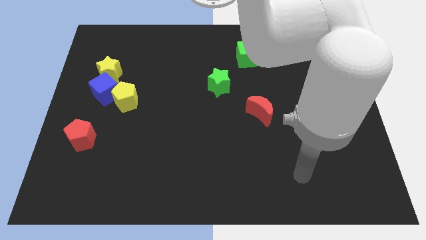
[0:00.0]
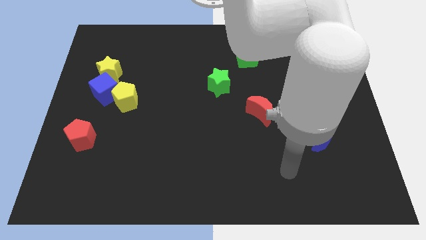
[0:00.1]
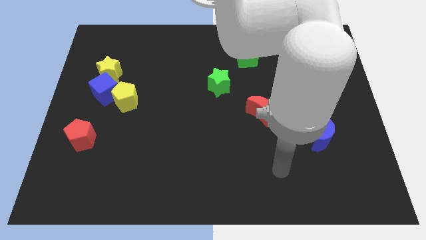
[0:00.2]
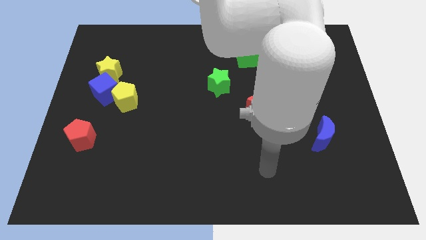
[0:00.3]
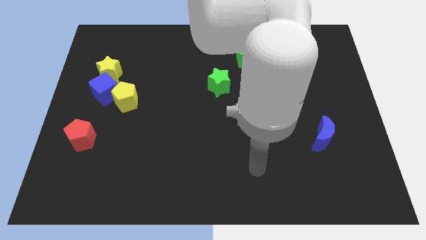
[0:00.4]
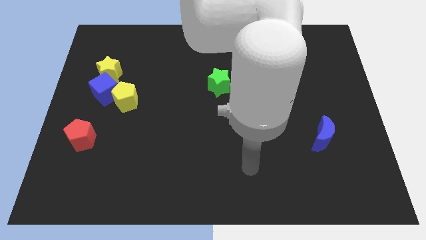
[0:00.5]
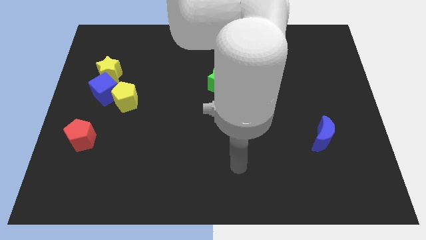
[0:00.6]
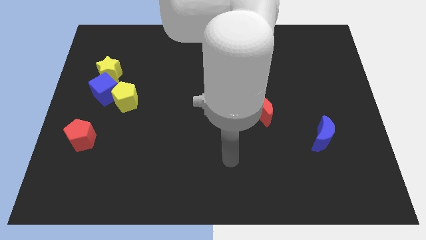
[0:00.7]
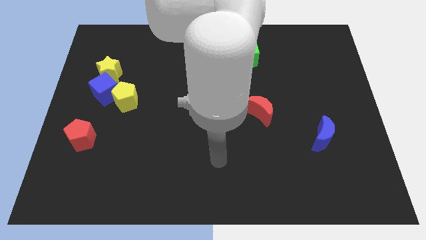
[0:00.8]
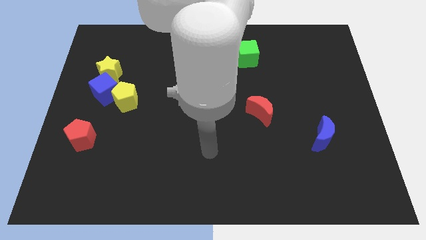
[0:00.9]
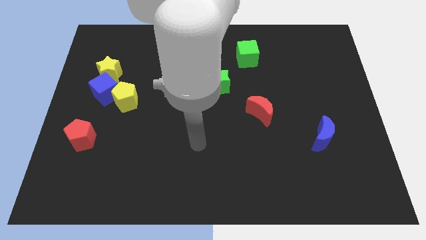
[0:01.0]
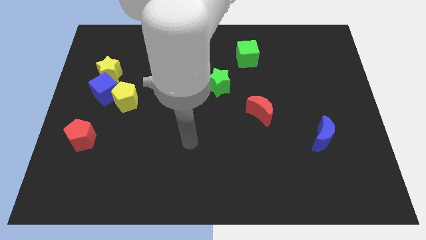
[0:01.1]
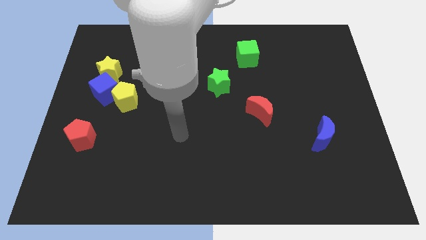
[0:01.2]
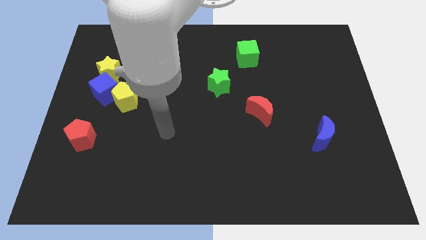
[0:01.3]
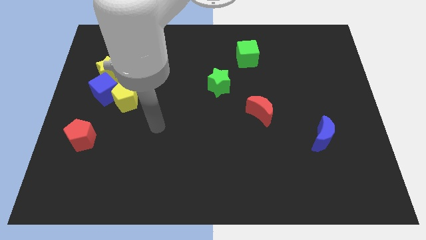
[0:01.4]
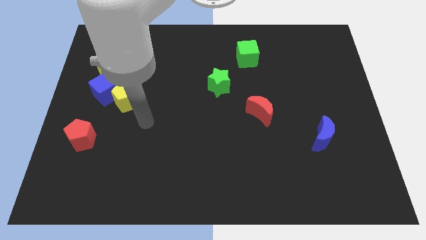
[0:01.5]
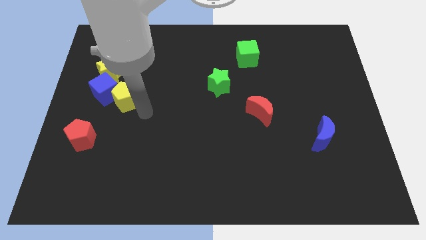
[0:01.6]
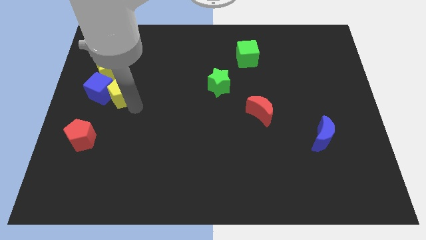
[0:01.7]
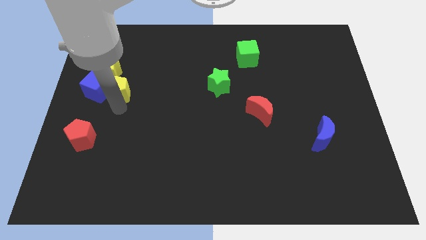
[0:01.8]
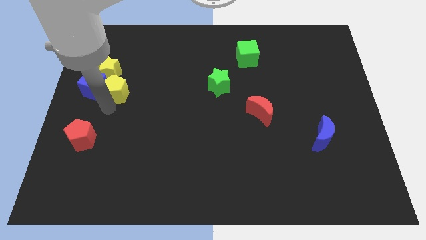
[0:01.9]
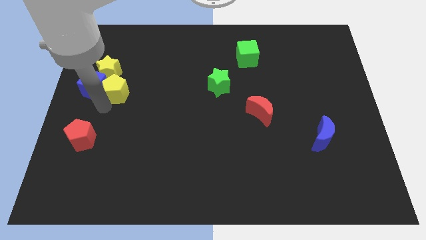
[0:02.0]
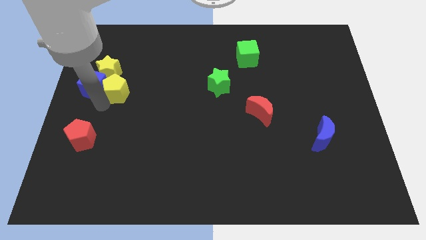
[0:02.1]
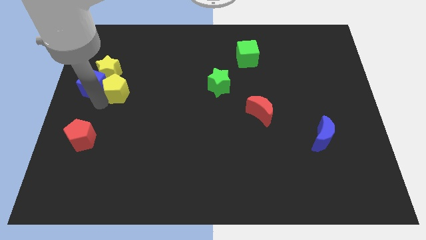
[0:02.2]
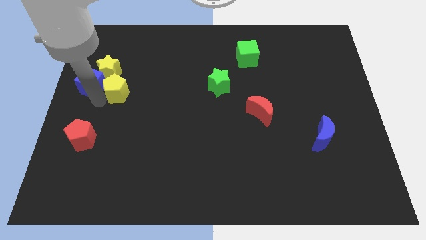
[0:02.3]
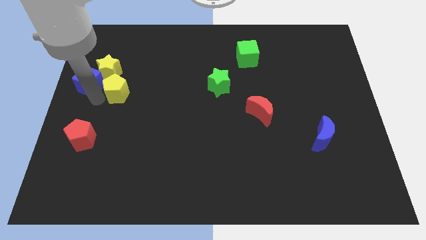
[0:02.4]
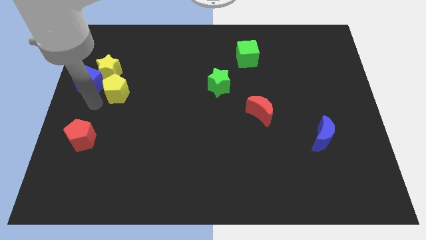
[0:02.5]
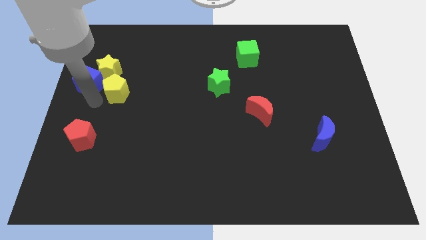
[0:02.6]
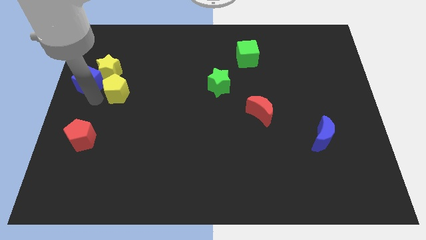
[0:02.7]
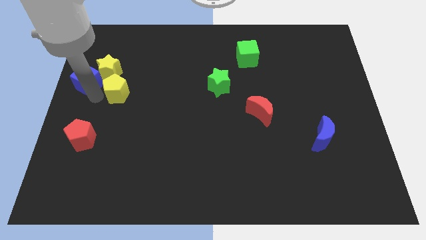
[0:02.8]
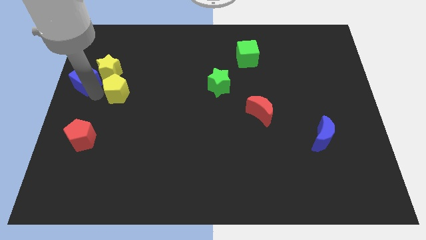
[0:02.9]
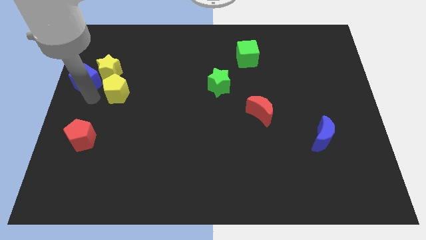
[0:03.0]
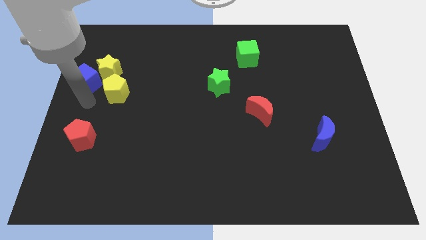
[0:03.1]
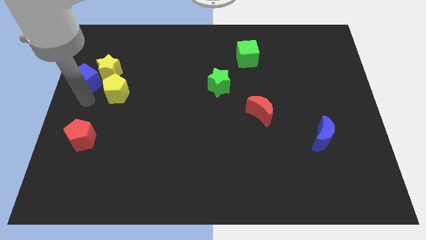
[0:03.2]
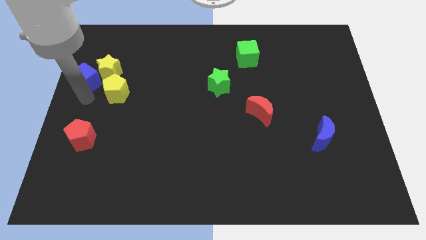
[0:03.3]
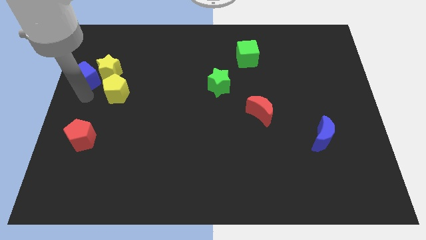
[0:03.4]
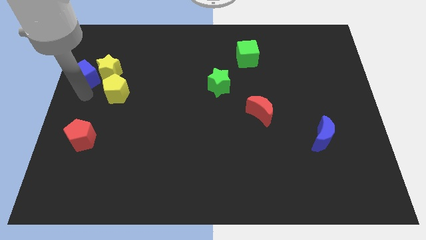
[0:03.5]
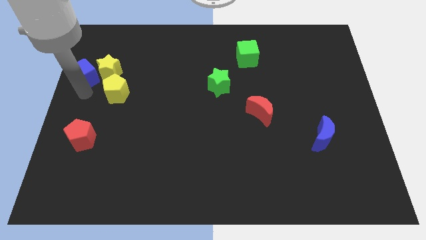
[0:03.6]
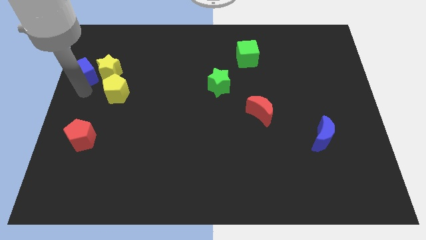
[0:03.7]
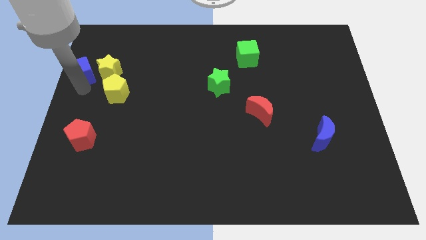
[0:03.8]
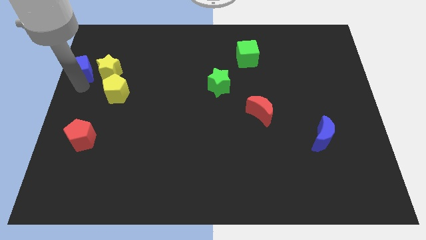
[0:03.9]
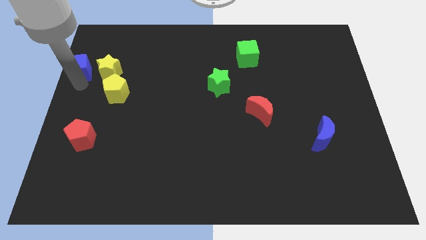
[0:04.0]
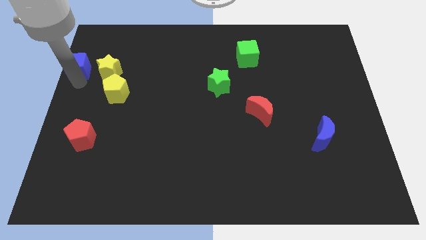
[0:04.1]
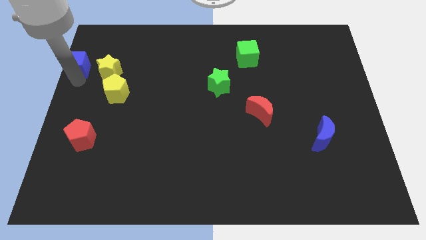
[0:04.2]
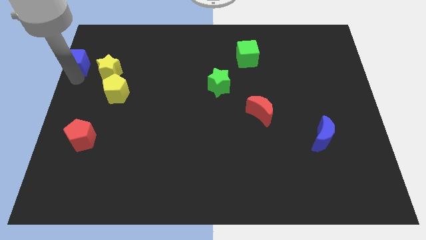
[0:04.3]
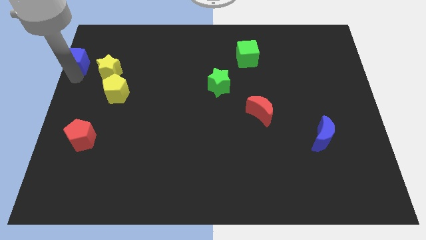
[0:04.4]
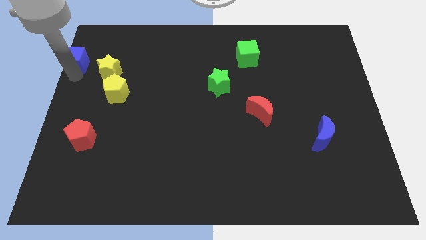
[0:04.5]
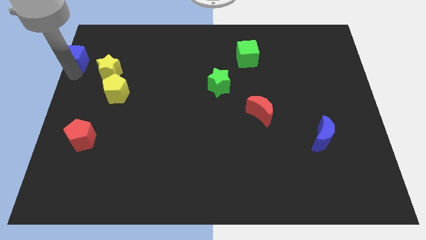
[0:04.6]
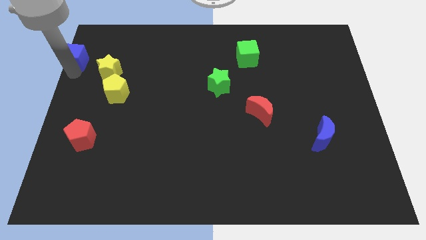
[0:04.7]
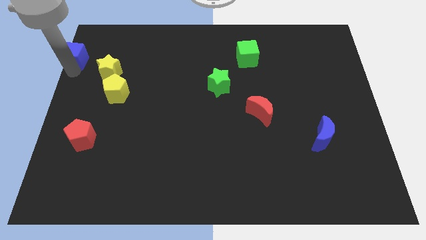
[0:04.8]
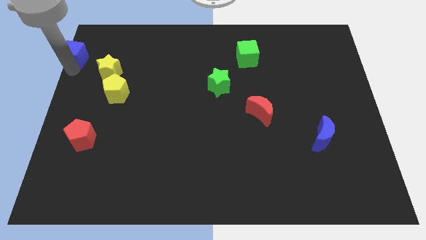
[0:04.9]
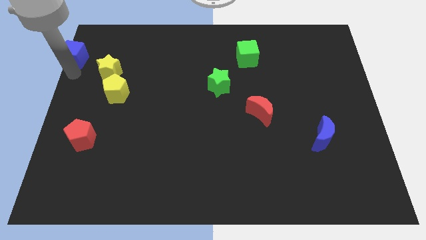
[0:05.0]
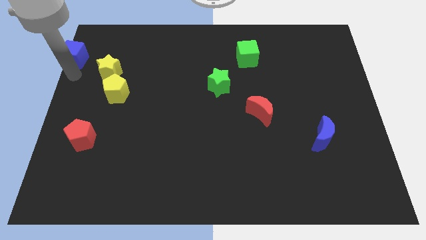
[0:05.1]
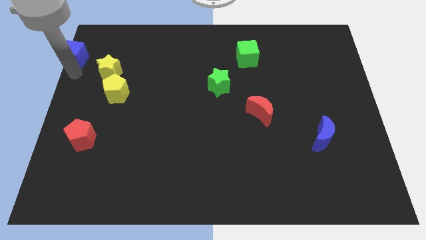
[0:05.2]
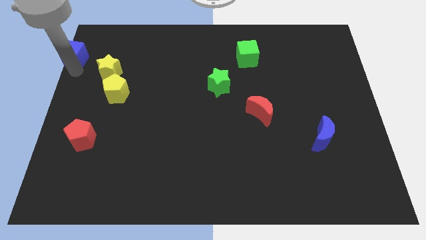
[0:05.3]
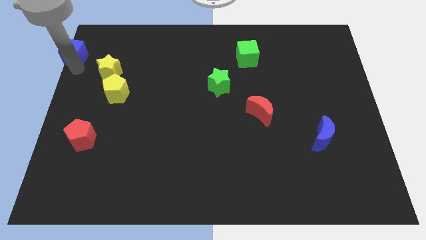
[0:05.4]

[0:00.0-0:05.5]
slide the blue cube to the top left

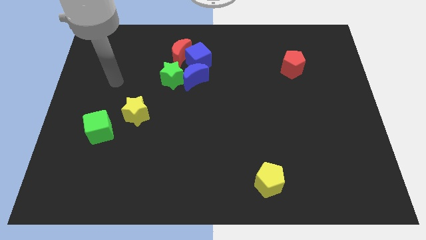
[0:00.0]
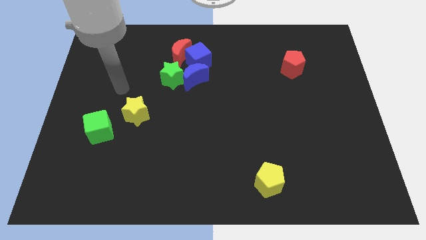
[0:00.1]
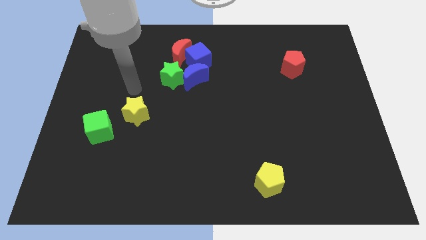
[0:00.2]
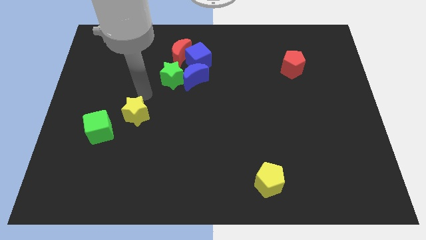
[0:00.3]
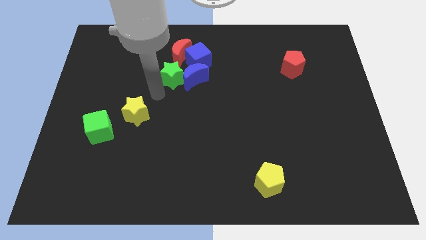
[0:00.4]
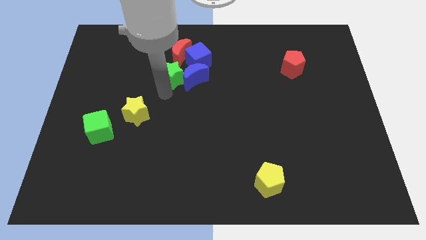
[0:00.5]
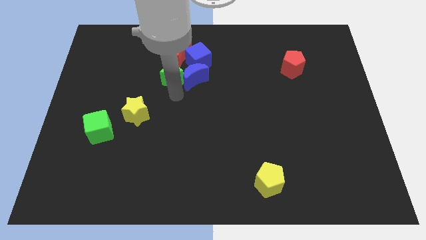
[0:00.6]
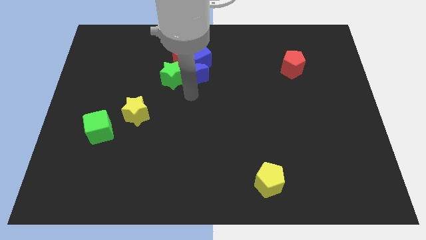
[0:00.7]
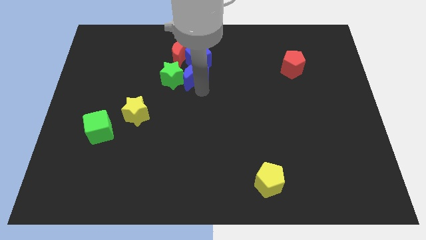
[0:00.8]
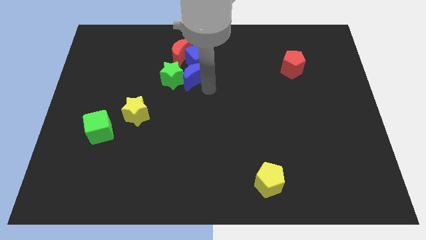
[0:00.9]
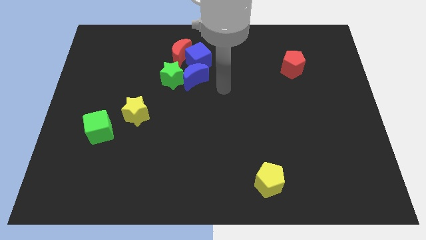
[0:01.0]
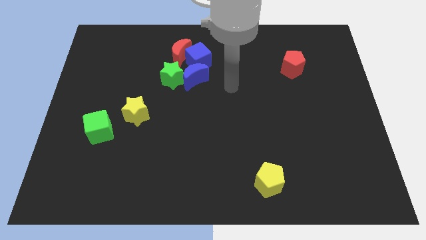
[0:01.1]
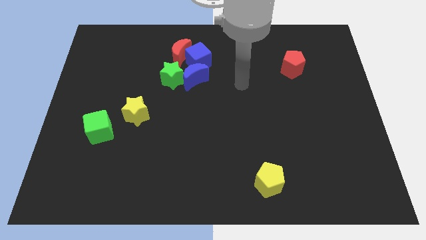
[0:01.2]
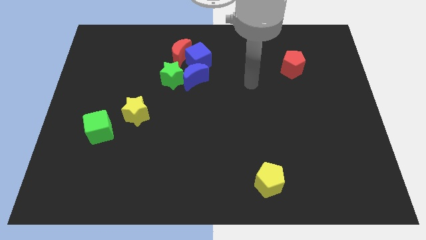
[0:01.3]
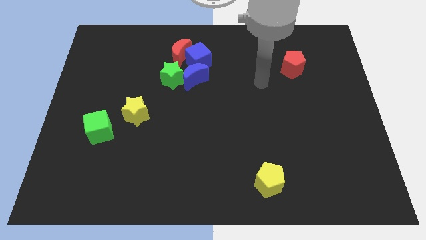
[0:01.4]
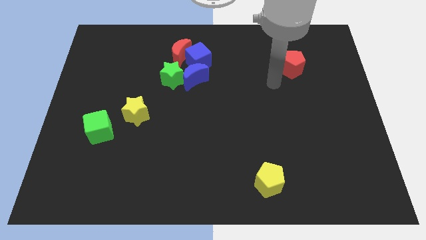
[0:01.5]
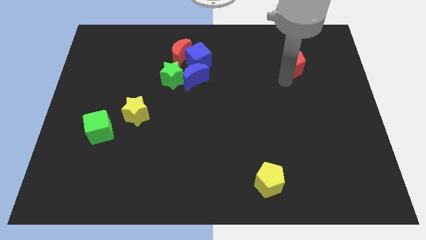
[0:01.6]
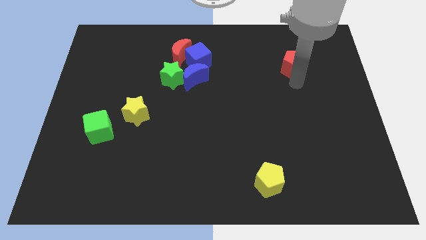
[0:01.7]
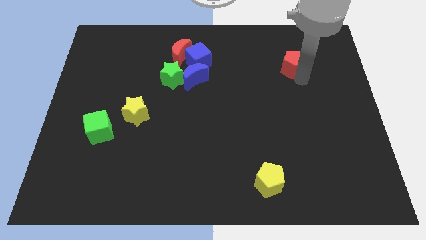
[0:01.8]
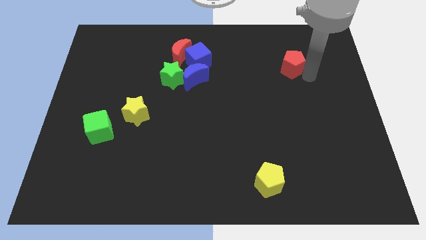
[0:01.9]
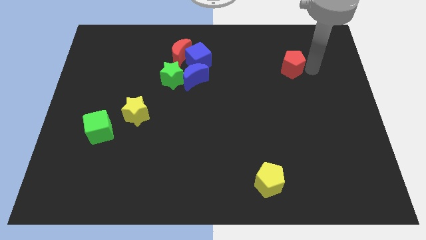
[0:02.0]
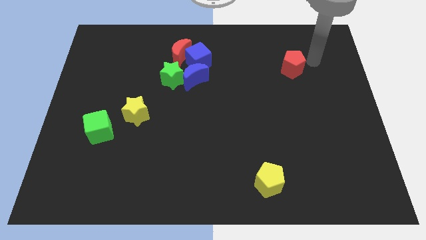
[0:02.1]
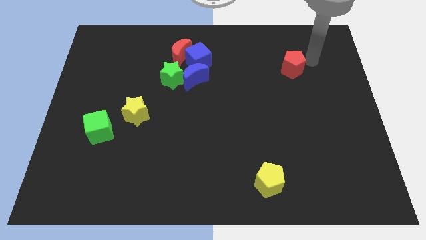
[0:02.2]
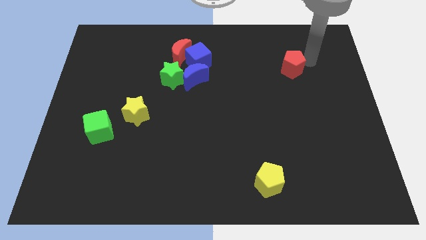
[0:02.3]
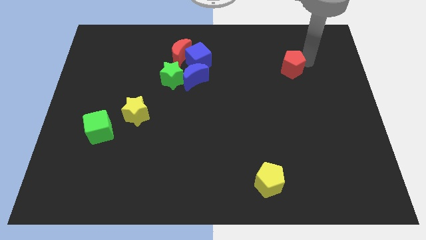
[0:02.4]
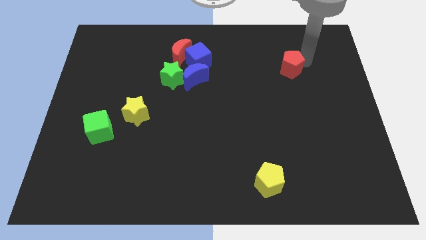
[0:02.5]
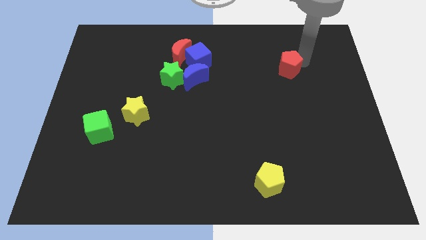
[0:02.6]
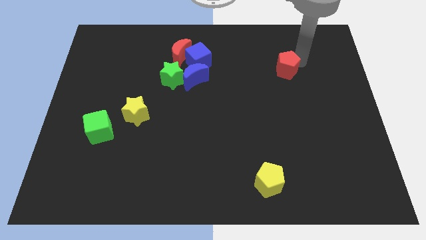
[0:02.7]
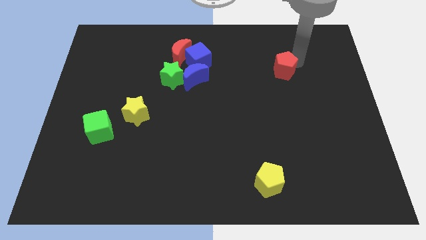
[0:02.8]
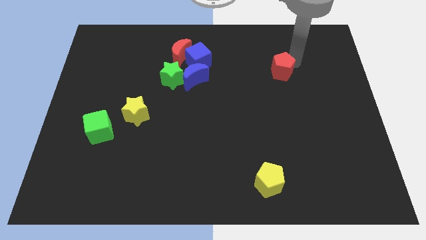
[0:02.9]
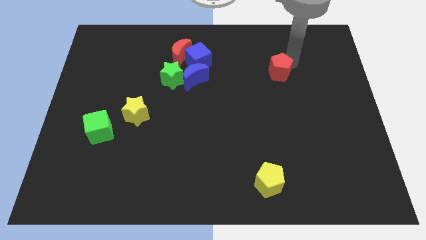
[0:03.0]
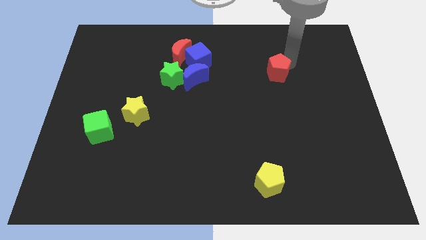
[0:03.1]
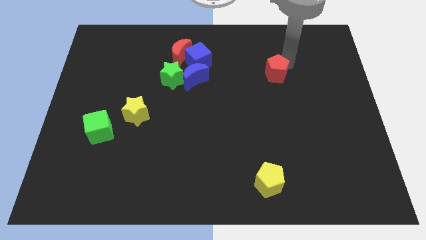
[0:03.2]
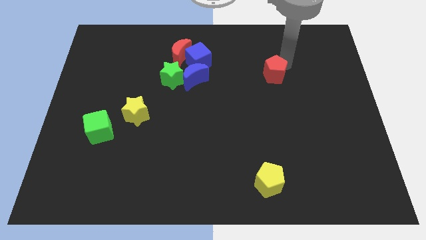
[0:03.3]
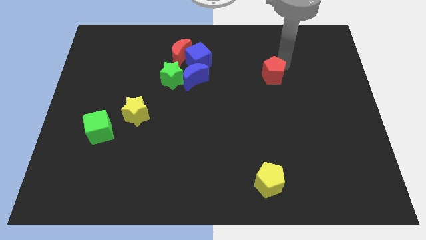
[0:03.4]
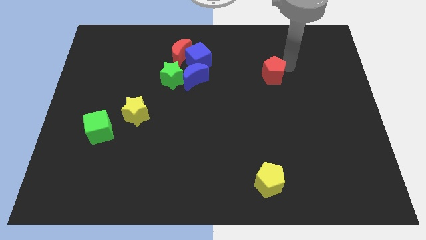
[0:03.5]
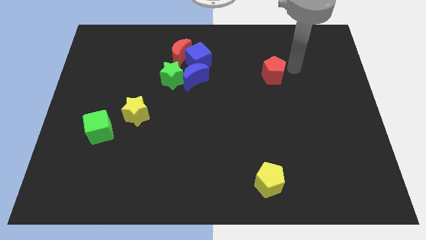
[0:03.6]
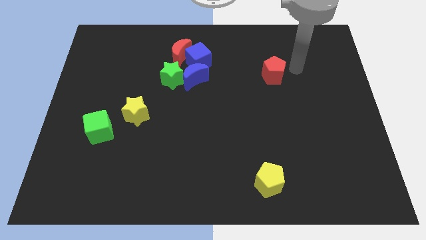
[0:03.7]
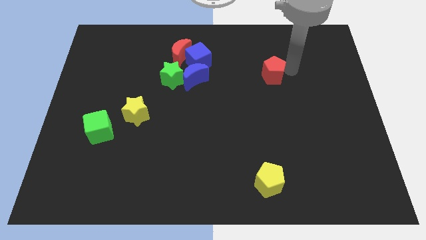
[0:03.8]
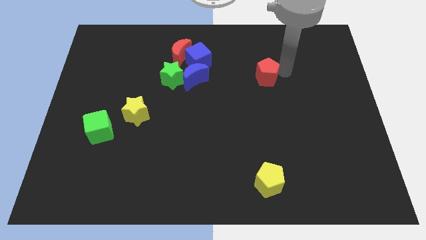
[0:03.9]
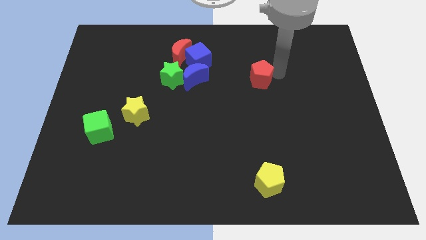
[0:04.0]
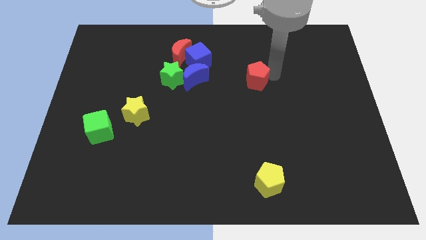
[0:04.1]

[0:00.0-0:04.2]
slide the red pentagon to the center
